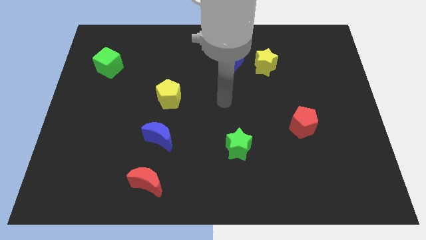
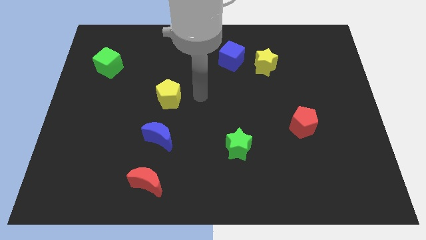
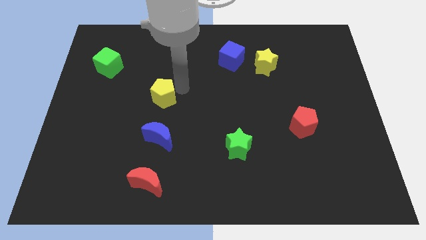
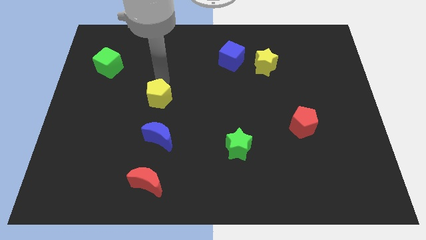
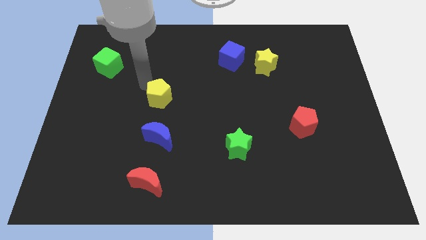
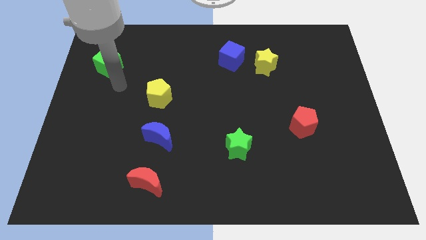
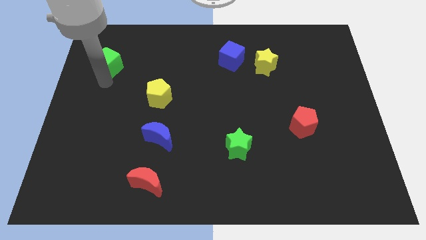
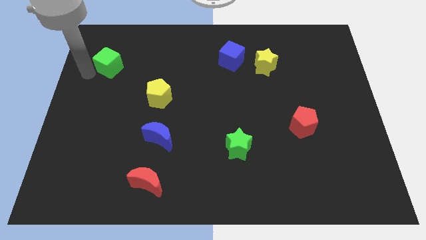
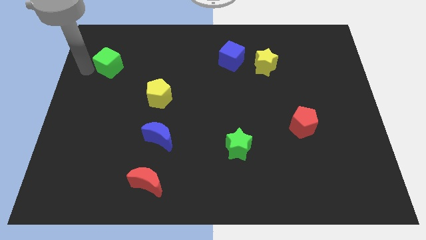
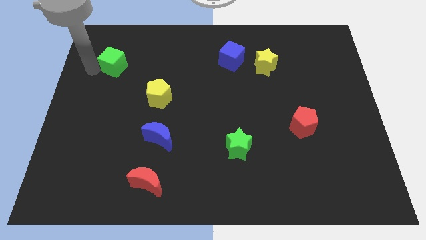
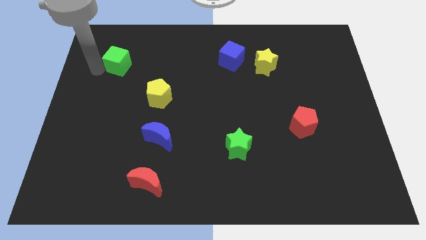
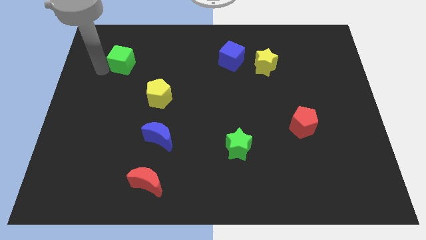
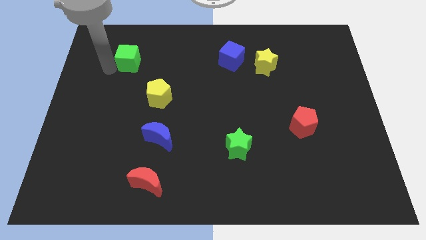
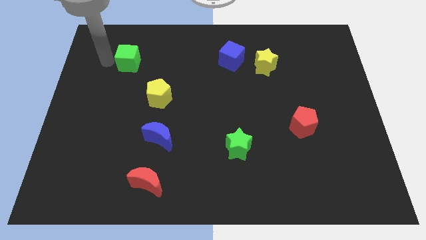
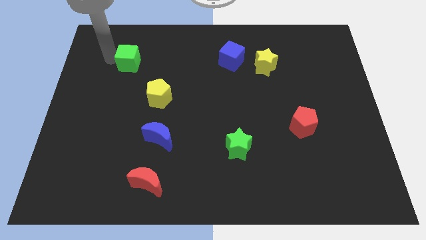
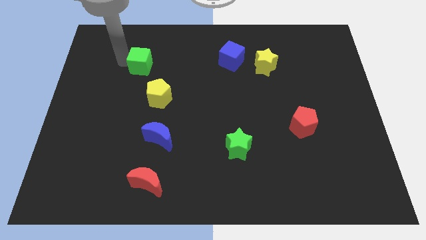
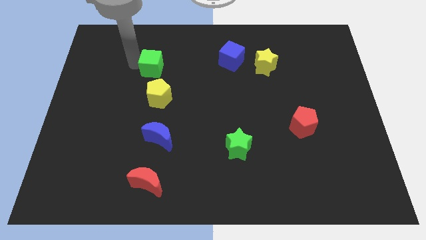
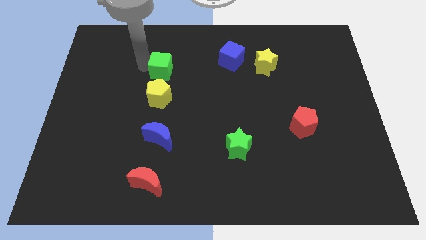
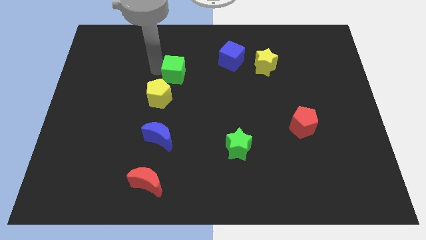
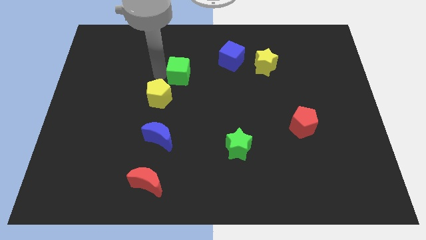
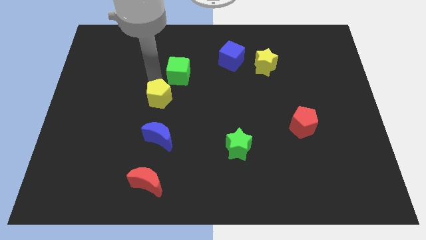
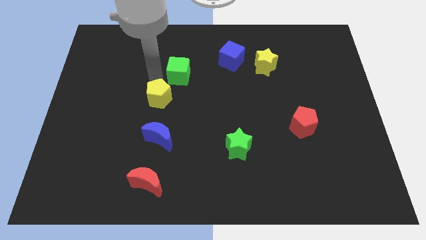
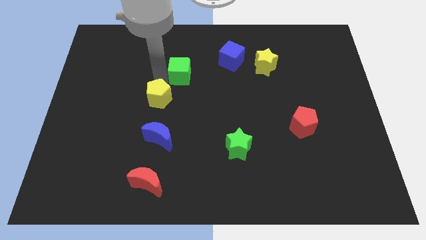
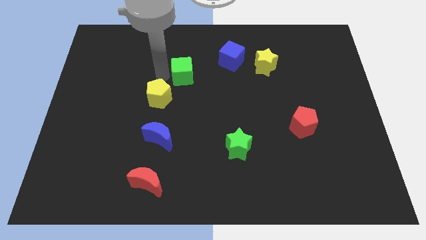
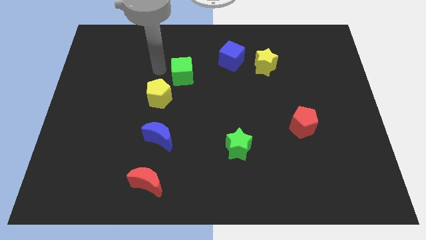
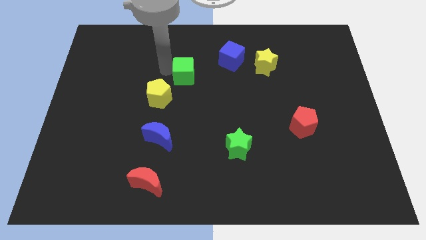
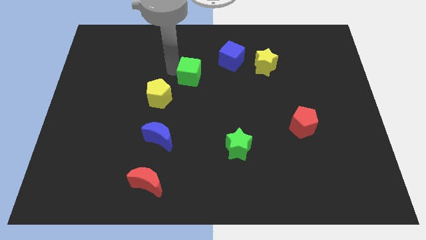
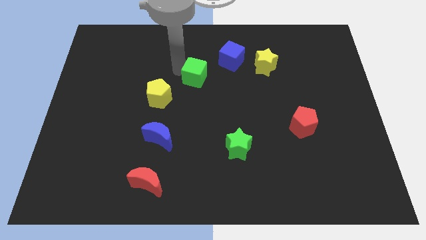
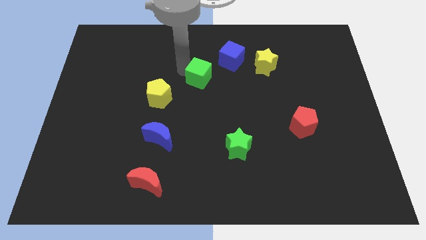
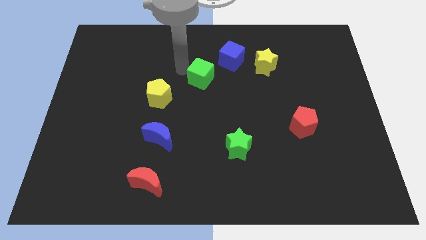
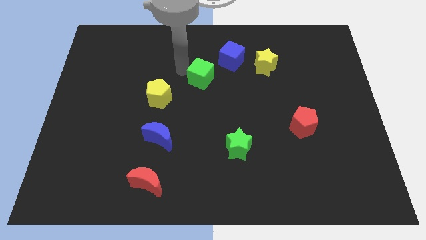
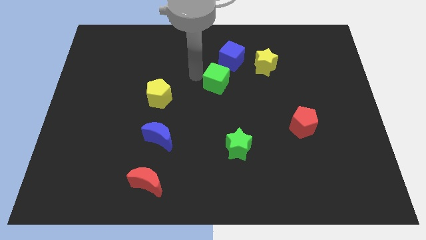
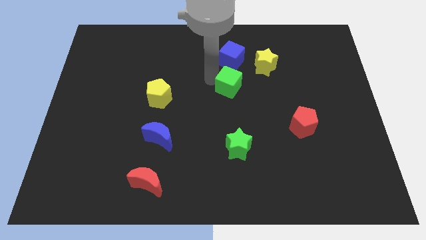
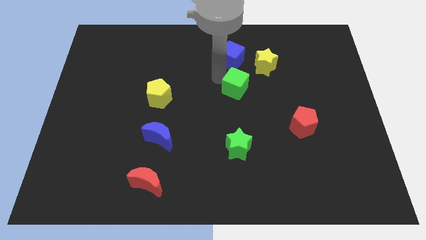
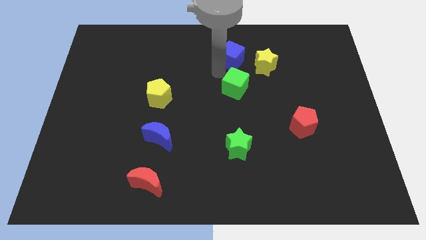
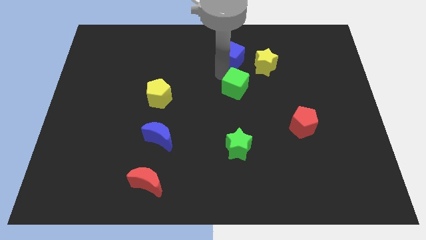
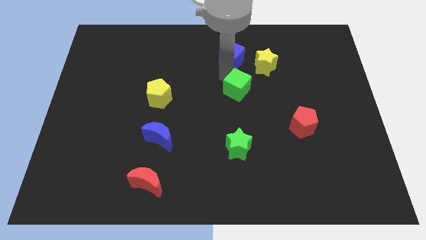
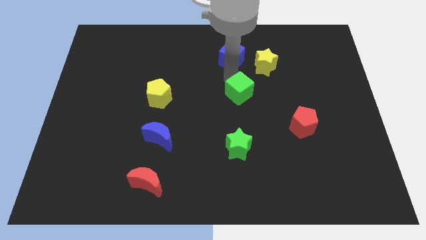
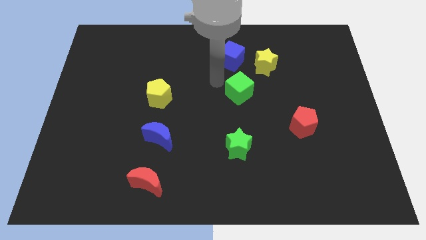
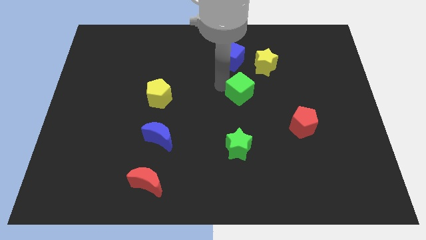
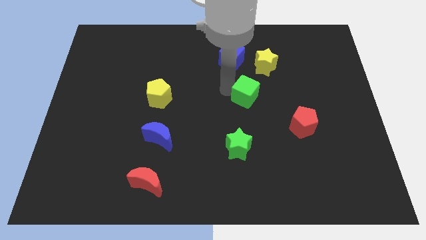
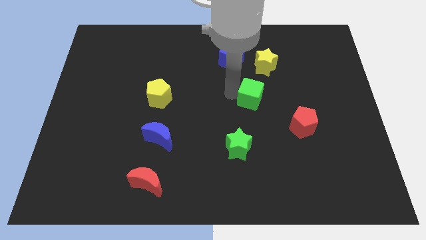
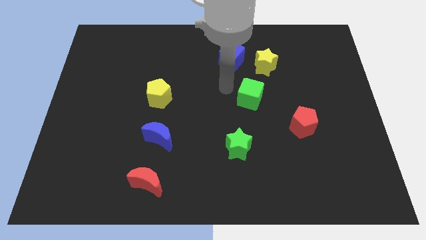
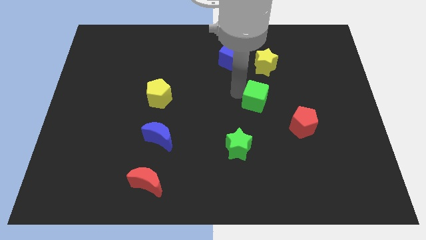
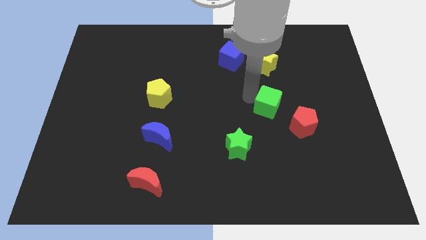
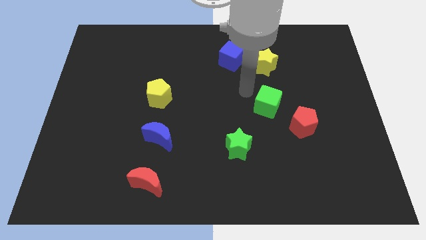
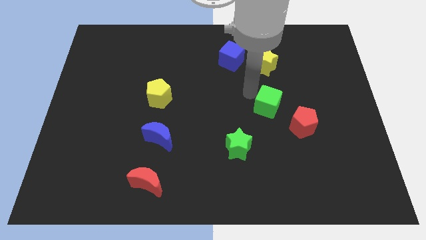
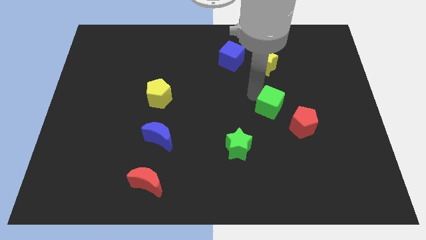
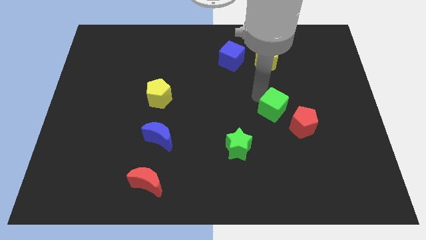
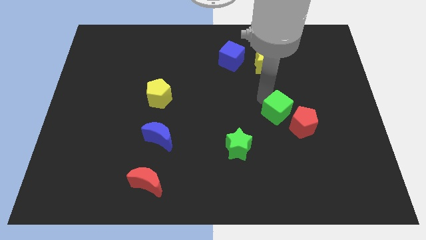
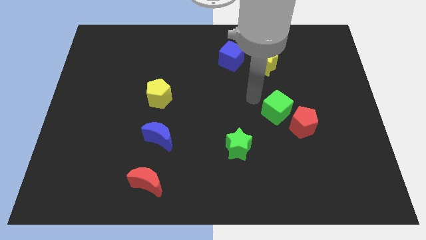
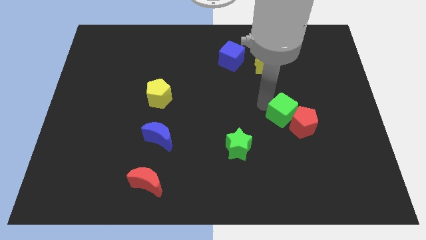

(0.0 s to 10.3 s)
put the green cube next to the red pentagon
